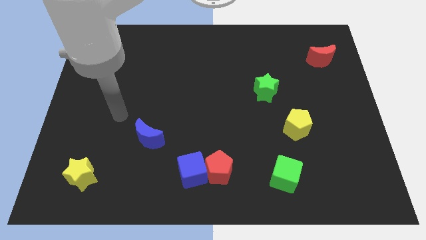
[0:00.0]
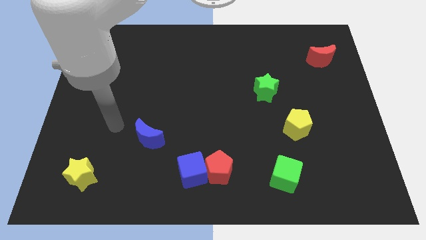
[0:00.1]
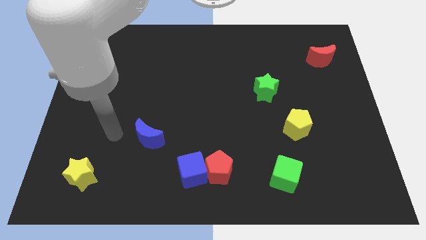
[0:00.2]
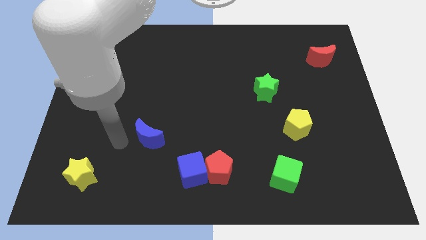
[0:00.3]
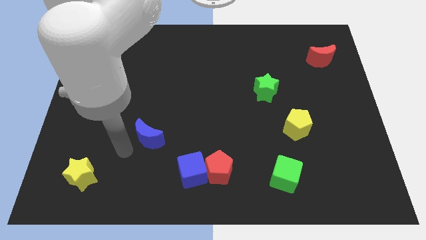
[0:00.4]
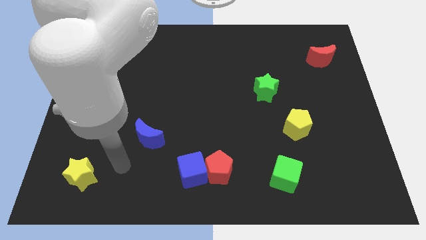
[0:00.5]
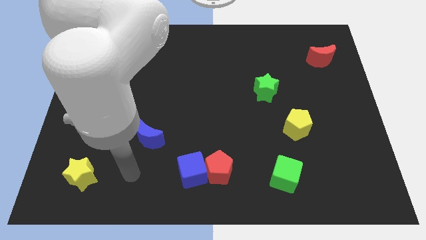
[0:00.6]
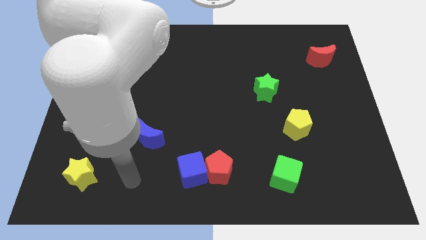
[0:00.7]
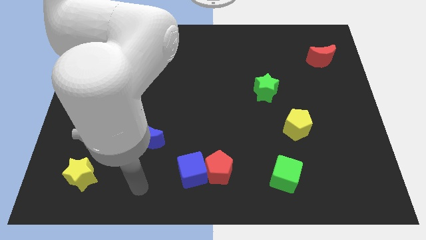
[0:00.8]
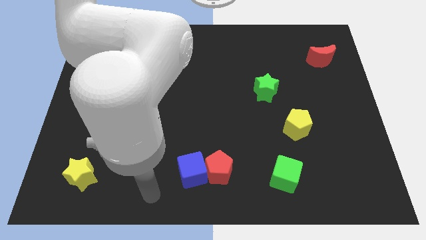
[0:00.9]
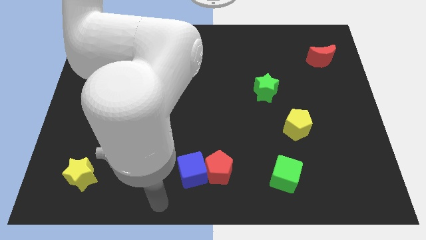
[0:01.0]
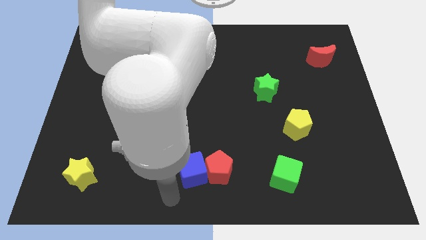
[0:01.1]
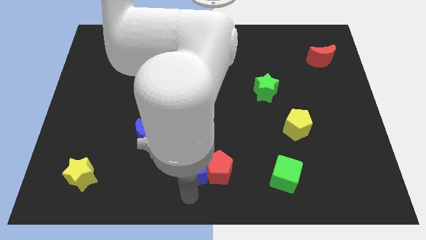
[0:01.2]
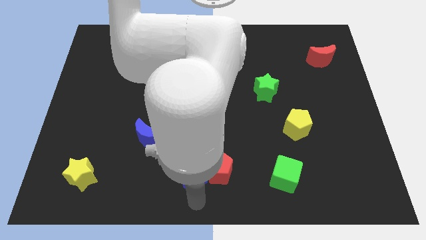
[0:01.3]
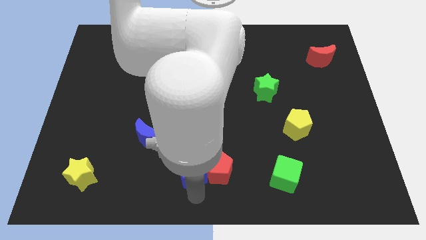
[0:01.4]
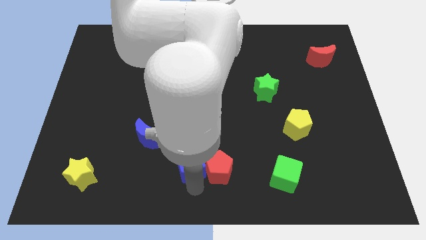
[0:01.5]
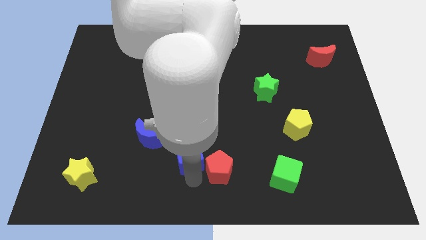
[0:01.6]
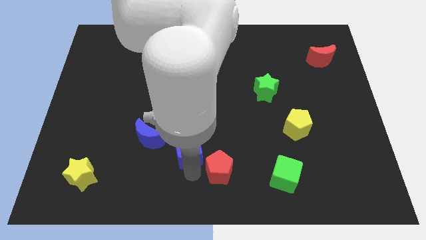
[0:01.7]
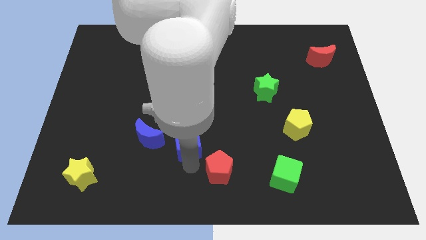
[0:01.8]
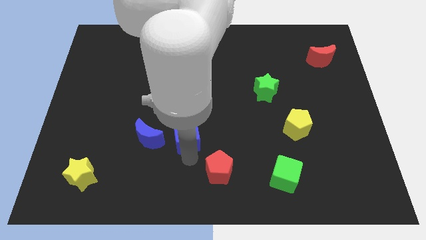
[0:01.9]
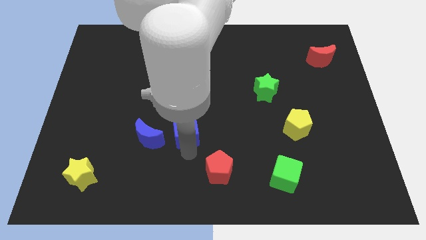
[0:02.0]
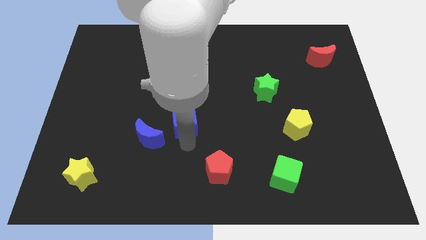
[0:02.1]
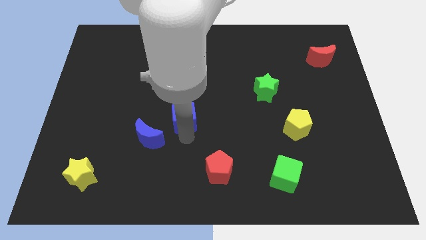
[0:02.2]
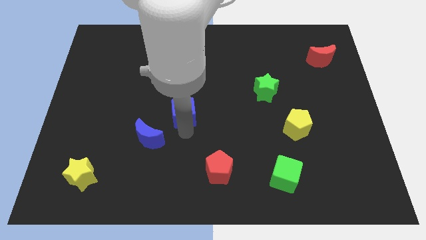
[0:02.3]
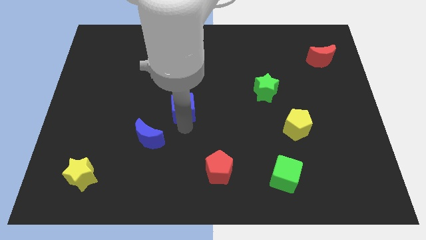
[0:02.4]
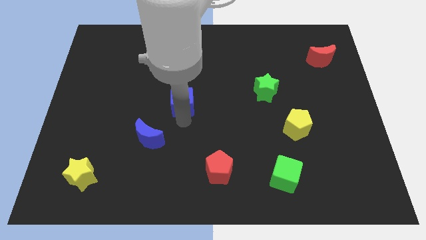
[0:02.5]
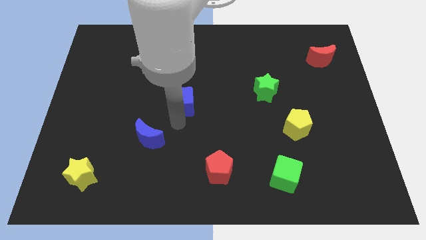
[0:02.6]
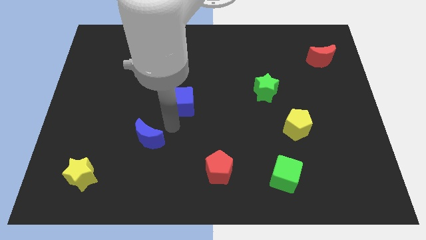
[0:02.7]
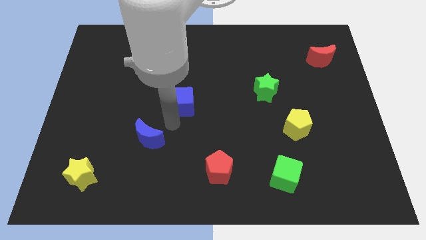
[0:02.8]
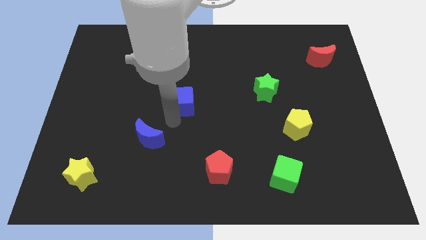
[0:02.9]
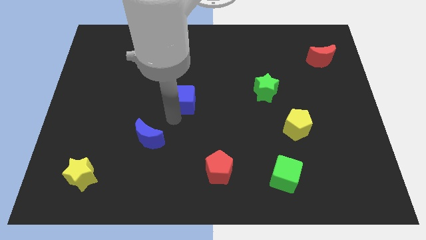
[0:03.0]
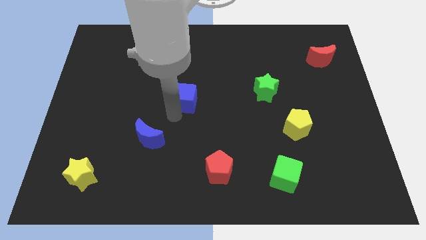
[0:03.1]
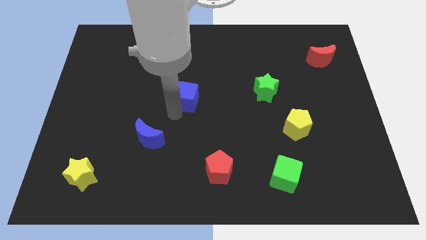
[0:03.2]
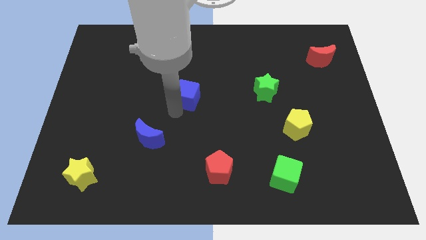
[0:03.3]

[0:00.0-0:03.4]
slide the blue cube upwards

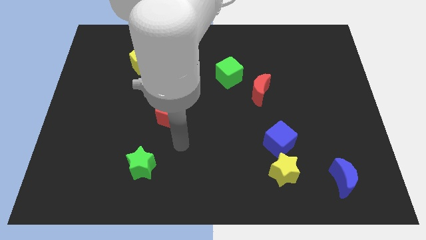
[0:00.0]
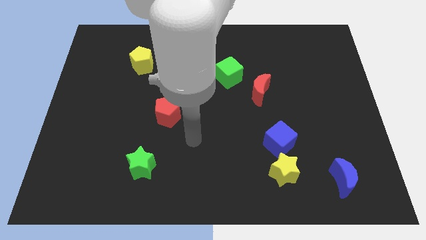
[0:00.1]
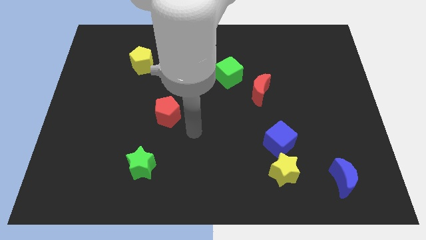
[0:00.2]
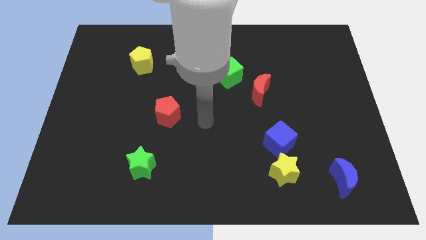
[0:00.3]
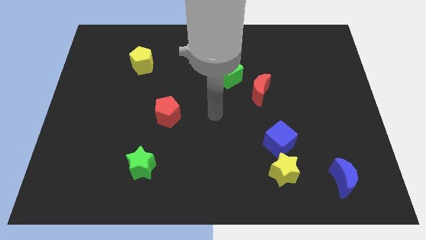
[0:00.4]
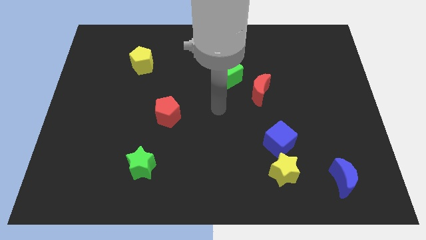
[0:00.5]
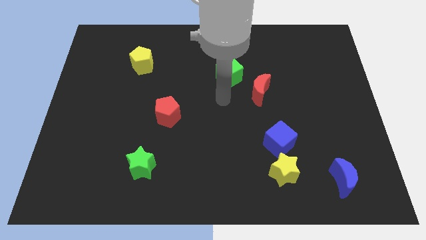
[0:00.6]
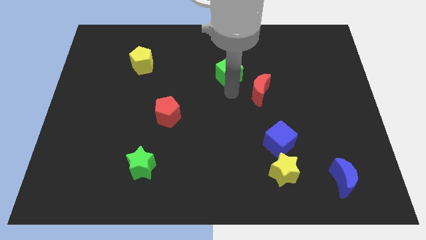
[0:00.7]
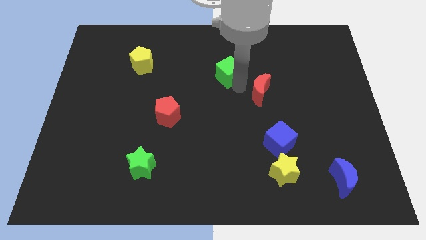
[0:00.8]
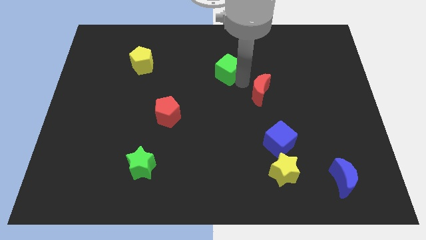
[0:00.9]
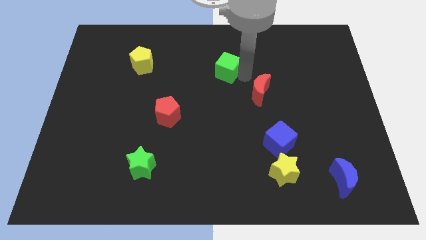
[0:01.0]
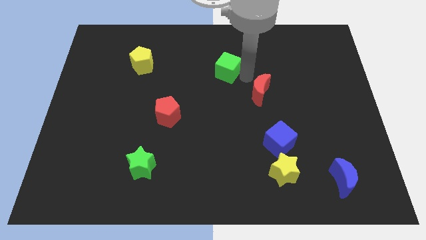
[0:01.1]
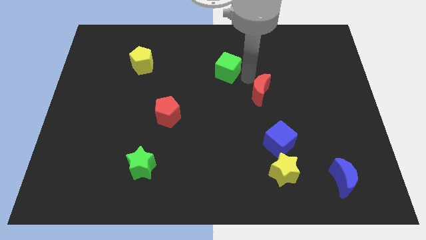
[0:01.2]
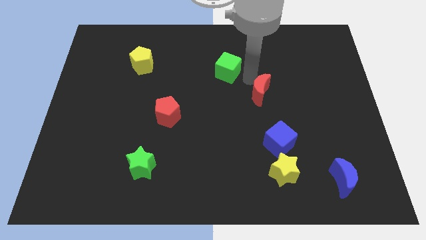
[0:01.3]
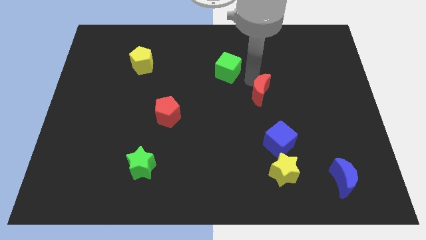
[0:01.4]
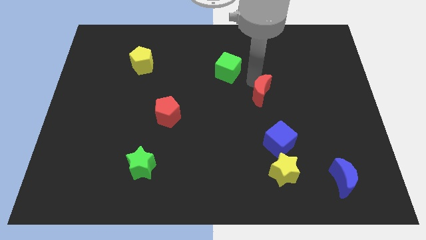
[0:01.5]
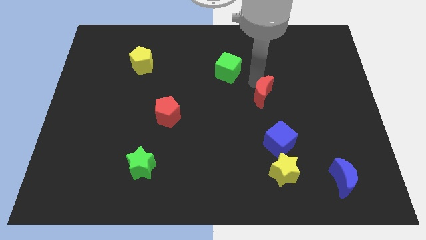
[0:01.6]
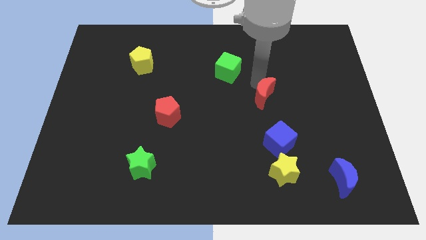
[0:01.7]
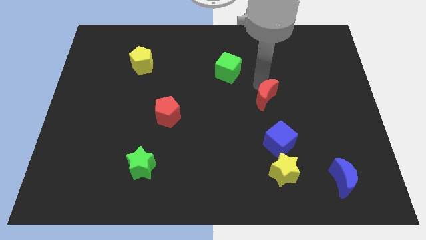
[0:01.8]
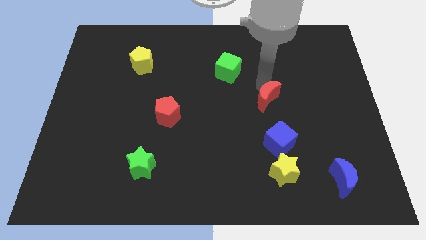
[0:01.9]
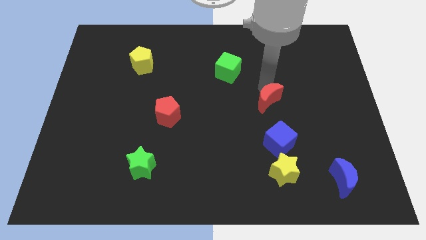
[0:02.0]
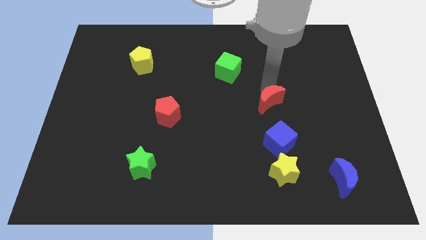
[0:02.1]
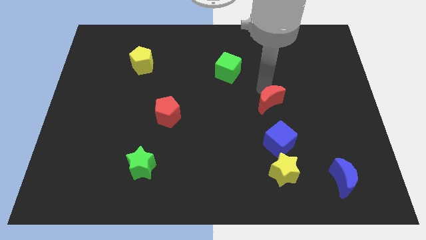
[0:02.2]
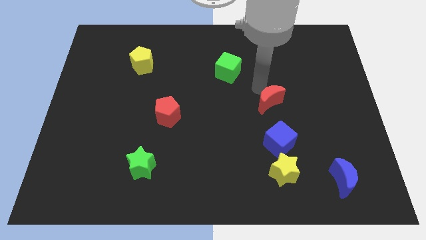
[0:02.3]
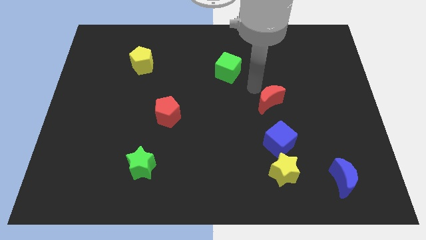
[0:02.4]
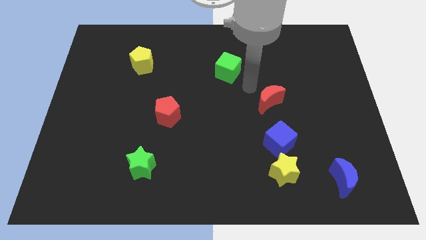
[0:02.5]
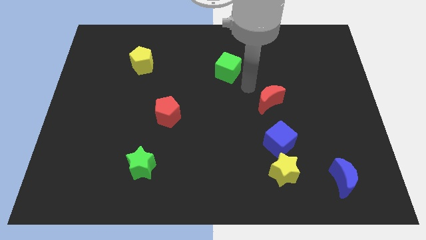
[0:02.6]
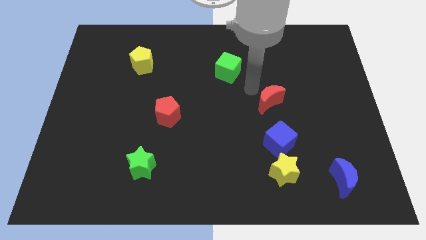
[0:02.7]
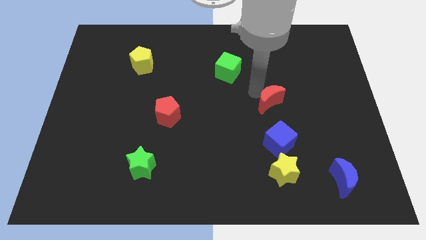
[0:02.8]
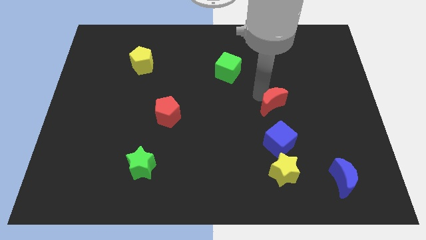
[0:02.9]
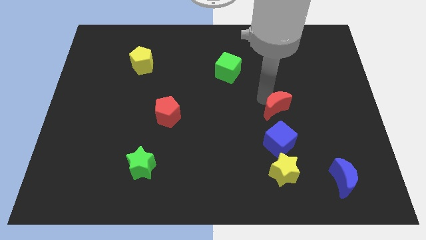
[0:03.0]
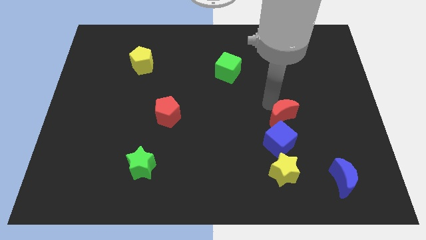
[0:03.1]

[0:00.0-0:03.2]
slide the red moon a little downwards and then to the right

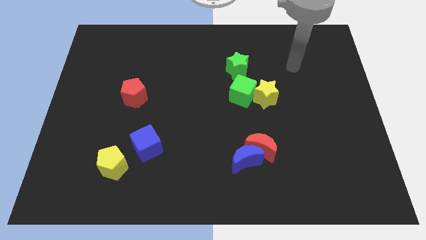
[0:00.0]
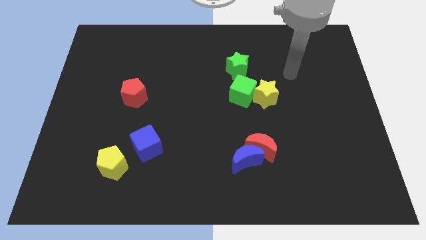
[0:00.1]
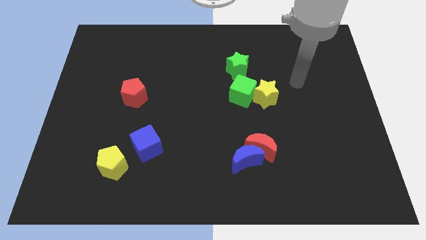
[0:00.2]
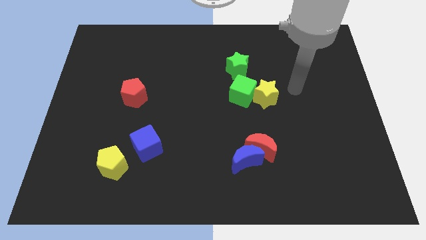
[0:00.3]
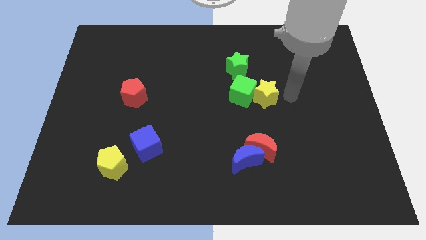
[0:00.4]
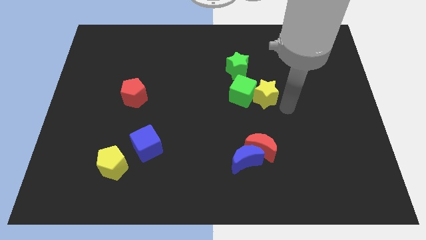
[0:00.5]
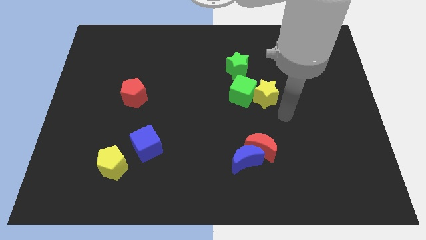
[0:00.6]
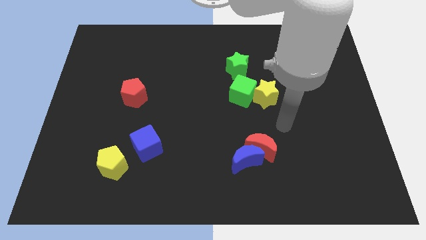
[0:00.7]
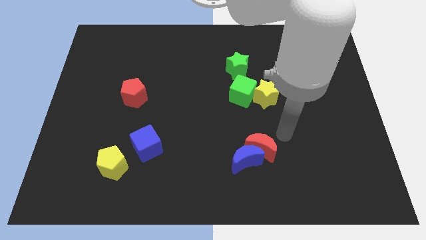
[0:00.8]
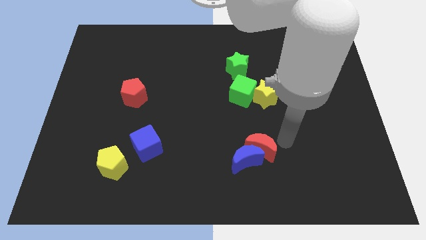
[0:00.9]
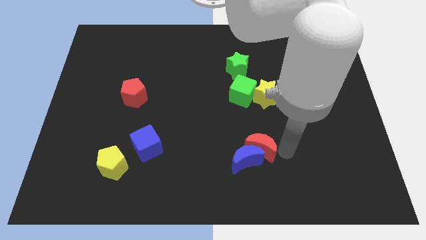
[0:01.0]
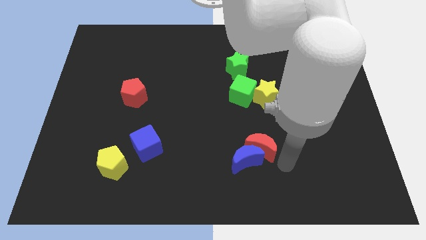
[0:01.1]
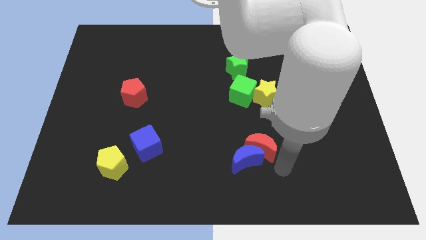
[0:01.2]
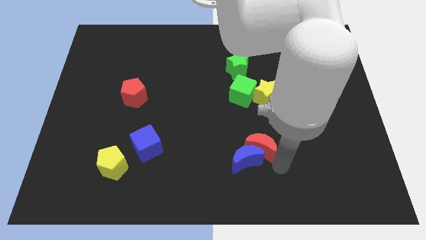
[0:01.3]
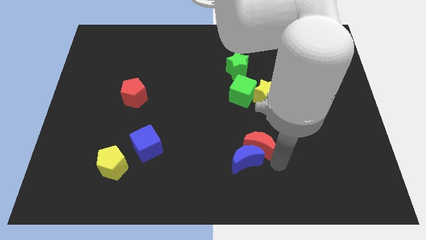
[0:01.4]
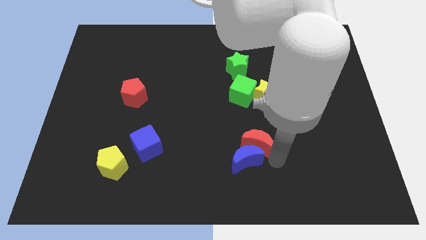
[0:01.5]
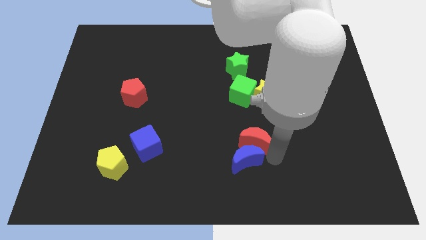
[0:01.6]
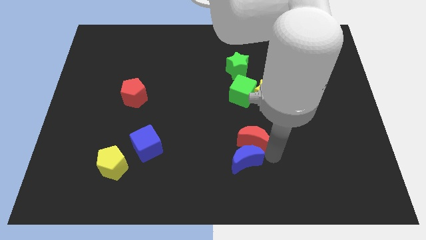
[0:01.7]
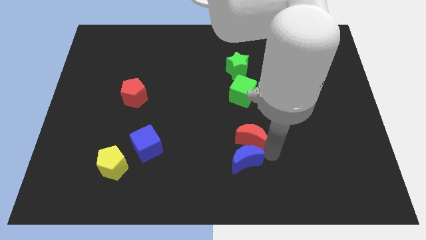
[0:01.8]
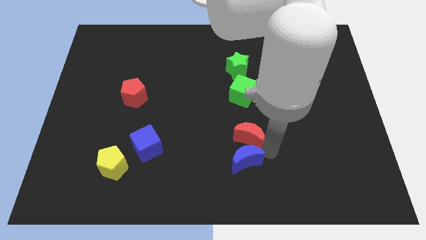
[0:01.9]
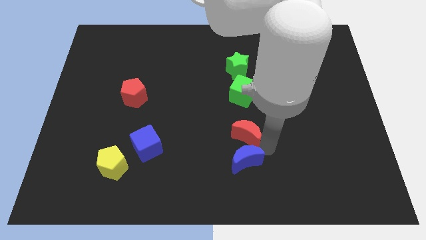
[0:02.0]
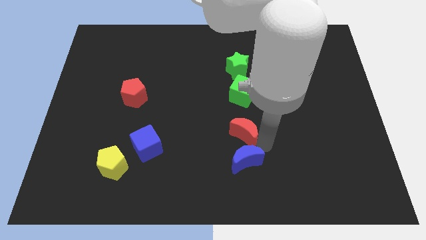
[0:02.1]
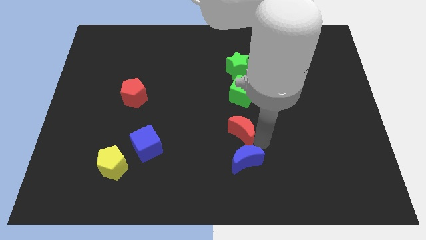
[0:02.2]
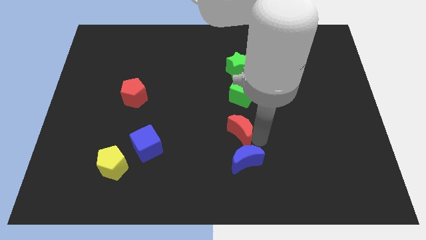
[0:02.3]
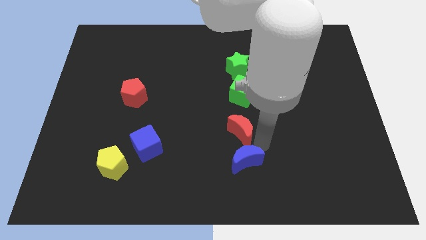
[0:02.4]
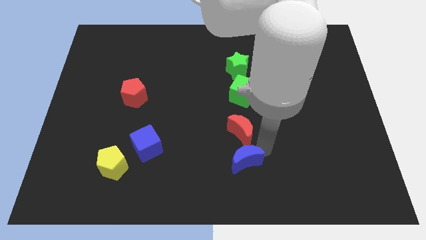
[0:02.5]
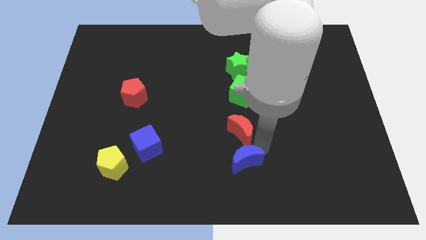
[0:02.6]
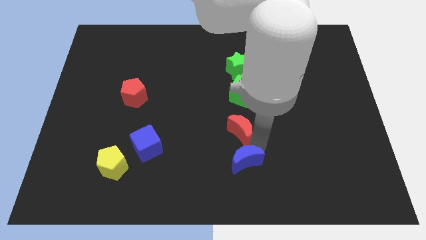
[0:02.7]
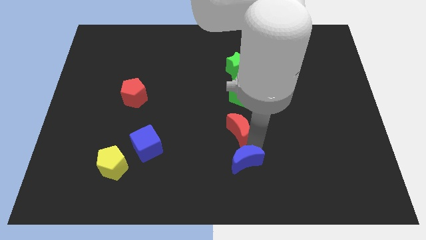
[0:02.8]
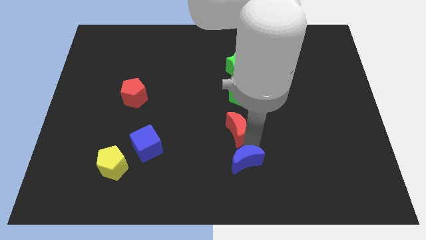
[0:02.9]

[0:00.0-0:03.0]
slide the red moon a little upwards and then left
